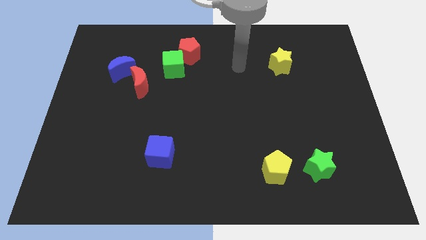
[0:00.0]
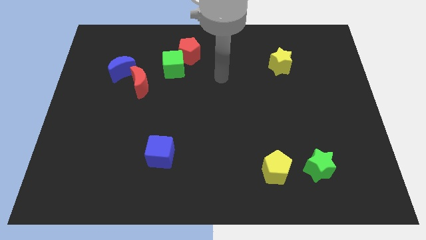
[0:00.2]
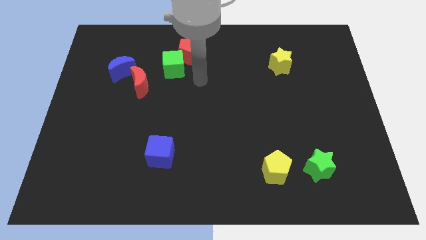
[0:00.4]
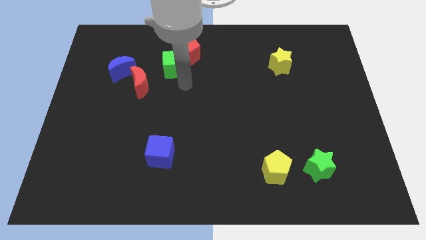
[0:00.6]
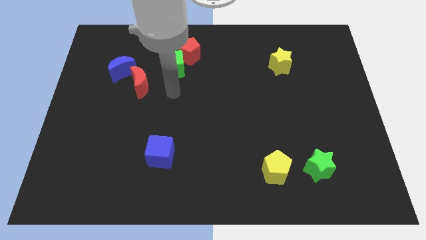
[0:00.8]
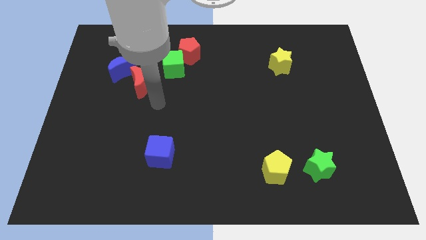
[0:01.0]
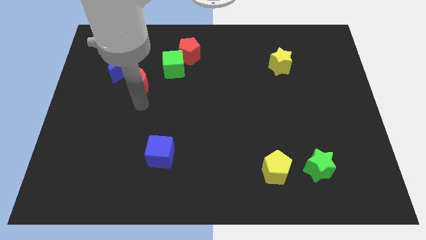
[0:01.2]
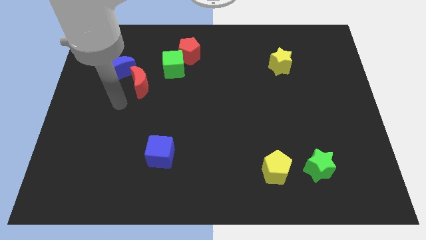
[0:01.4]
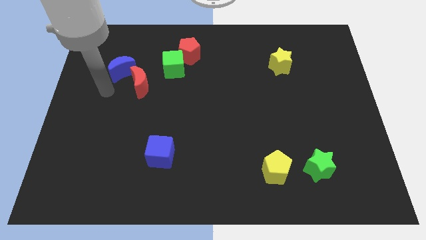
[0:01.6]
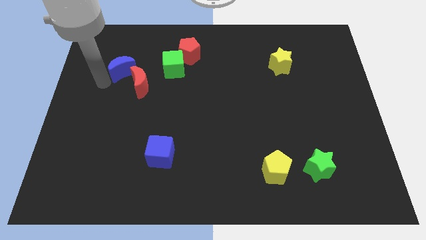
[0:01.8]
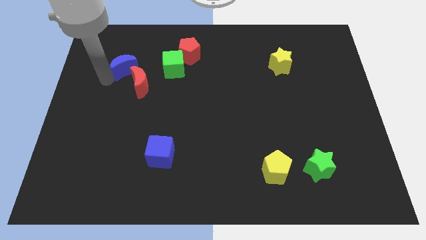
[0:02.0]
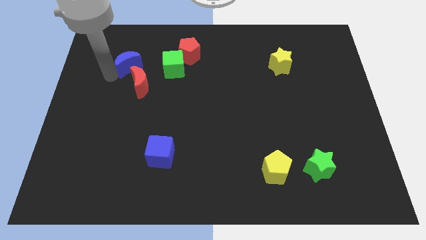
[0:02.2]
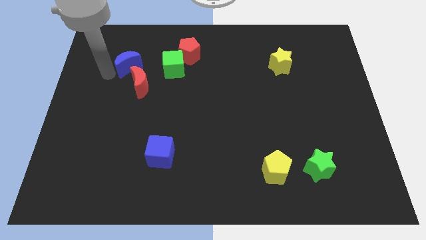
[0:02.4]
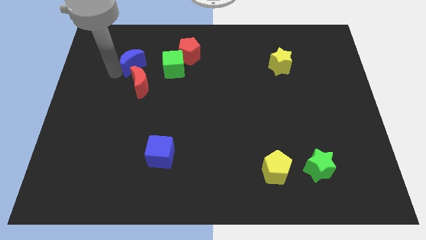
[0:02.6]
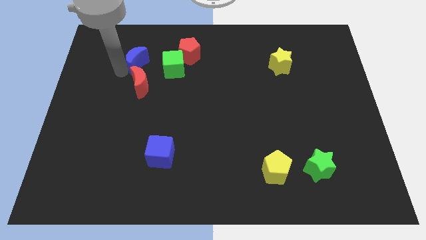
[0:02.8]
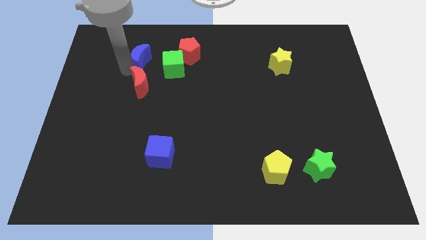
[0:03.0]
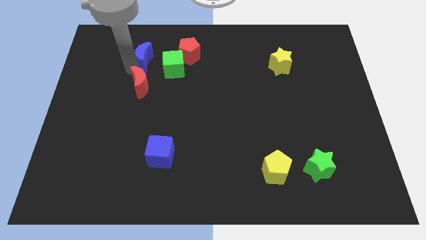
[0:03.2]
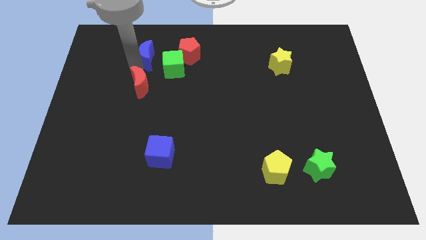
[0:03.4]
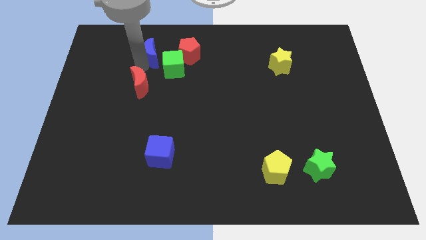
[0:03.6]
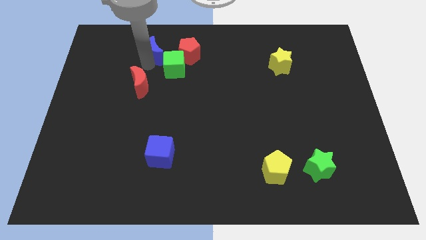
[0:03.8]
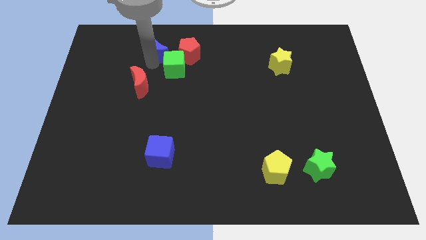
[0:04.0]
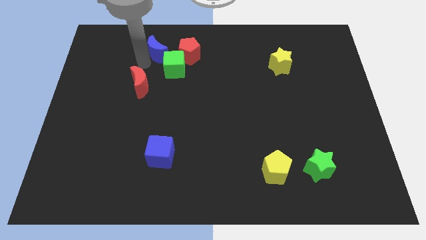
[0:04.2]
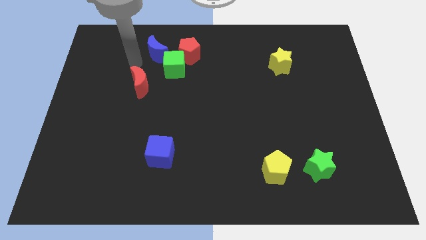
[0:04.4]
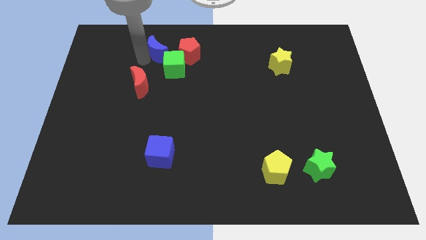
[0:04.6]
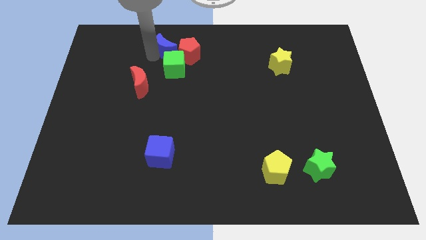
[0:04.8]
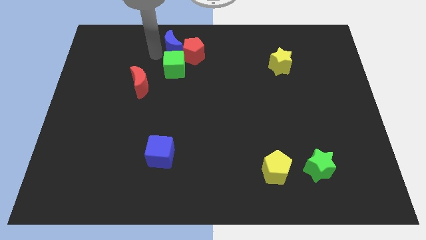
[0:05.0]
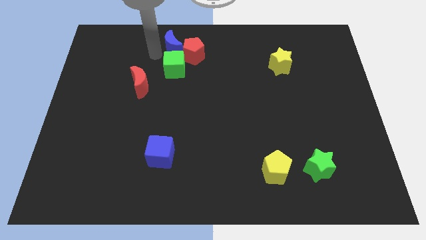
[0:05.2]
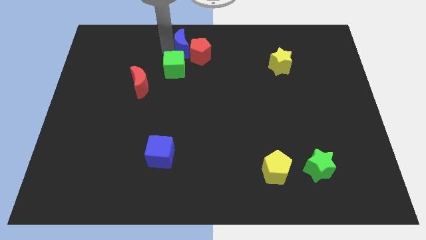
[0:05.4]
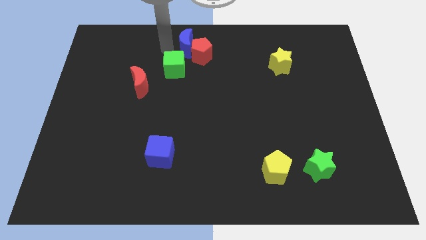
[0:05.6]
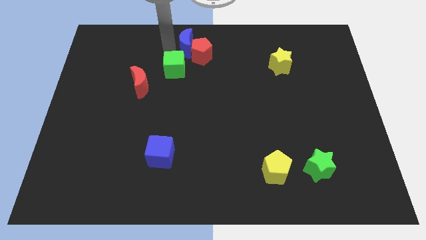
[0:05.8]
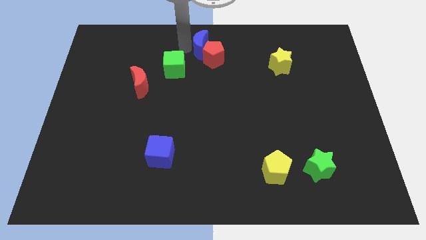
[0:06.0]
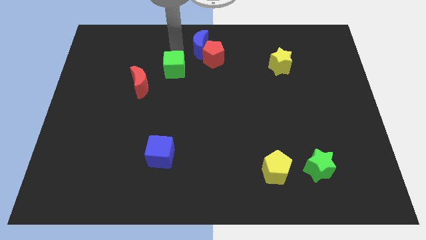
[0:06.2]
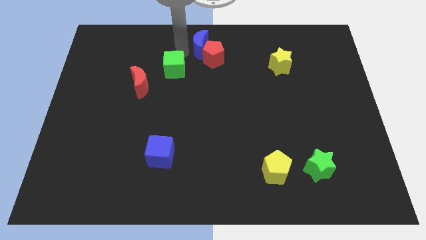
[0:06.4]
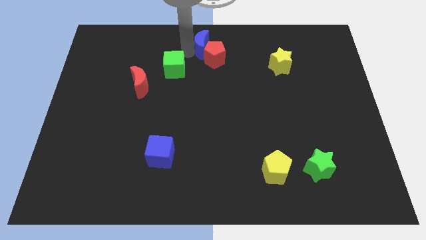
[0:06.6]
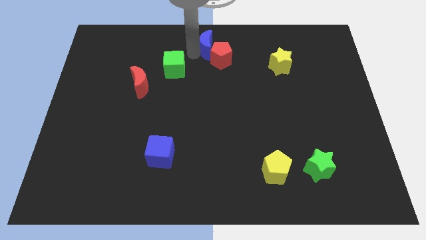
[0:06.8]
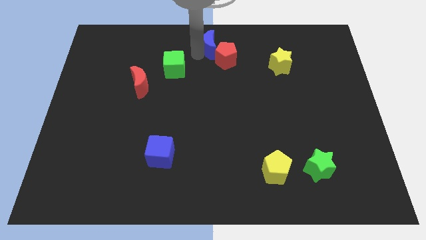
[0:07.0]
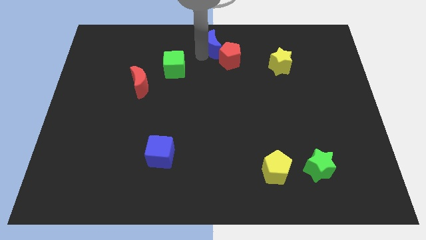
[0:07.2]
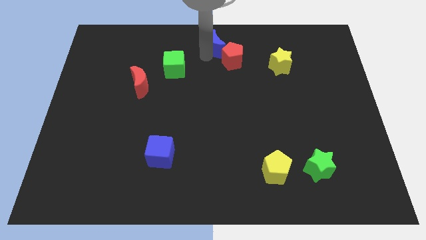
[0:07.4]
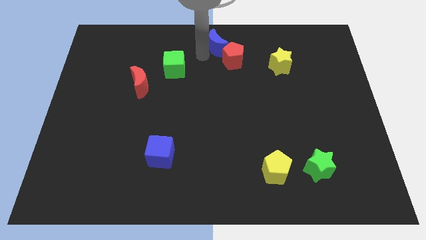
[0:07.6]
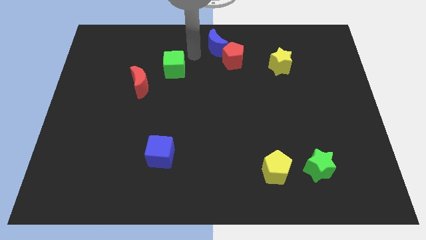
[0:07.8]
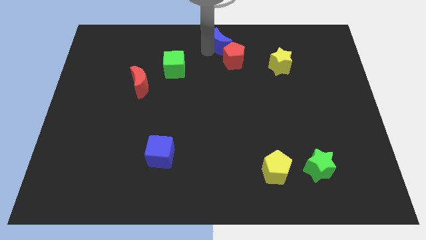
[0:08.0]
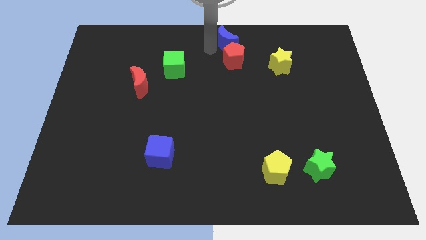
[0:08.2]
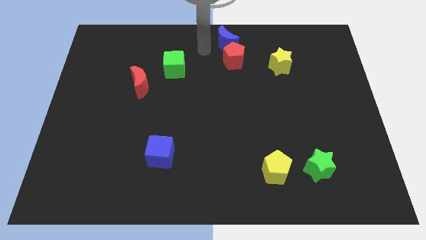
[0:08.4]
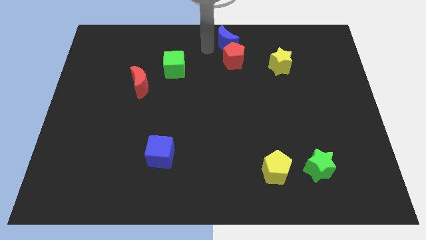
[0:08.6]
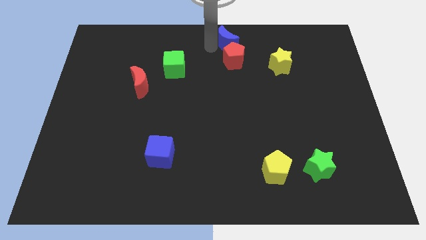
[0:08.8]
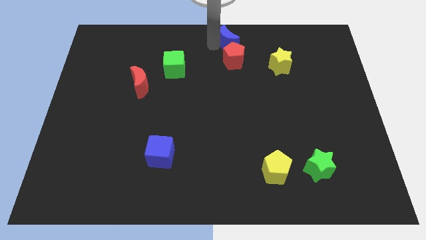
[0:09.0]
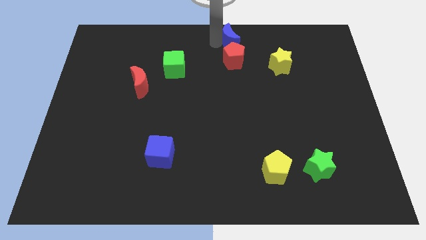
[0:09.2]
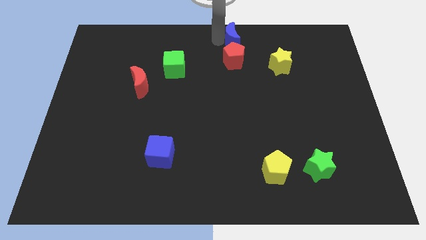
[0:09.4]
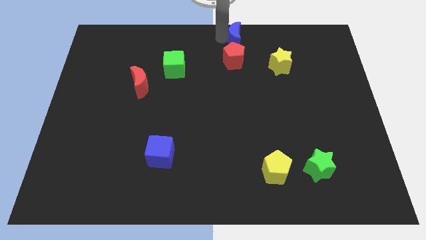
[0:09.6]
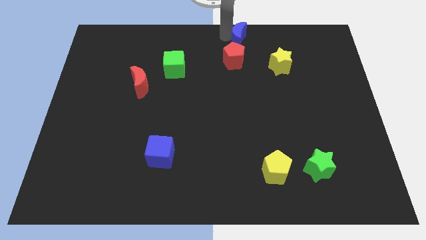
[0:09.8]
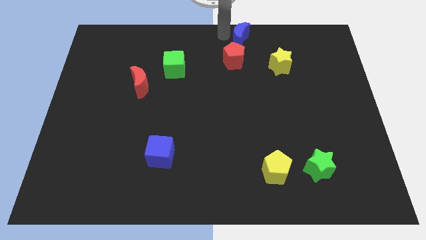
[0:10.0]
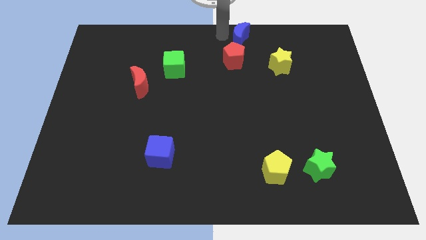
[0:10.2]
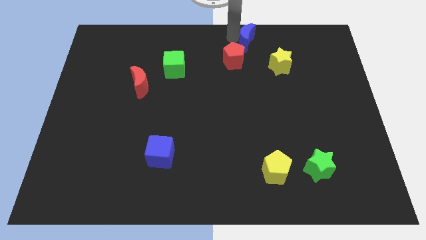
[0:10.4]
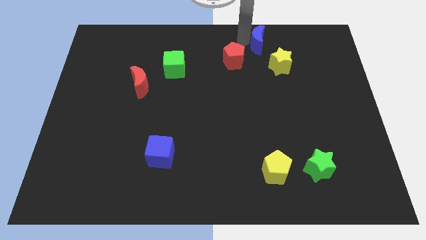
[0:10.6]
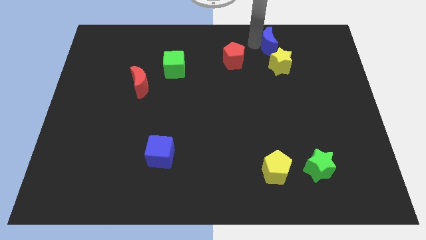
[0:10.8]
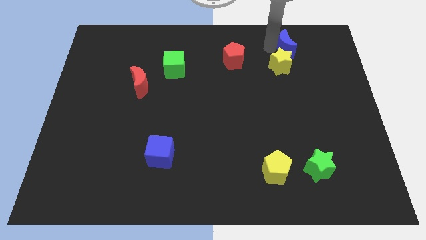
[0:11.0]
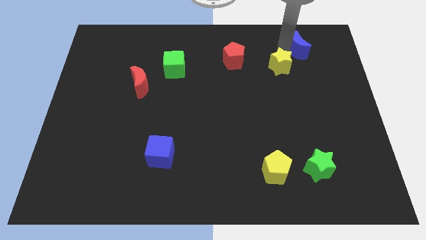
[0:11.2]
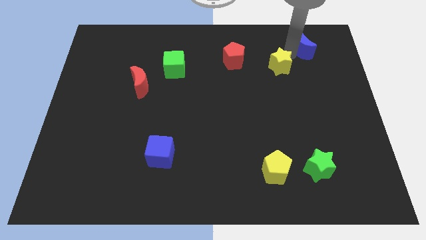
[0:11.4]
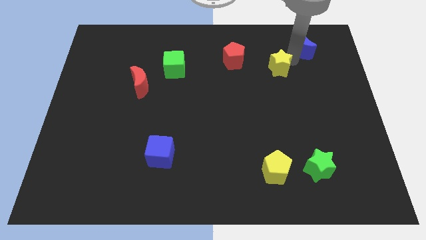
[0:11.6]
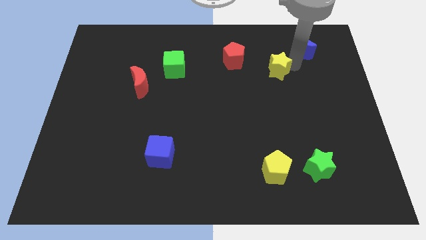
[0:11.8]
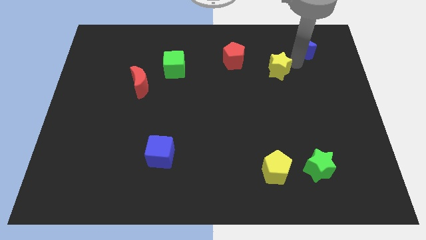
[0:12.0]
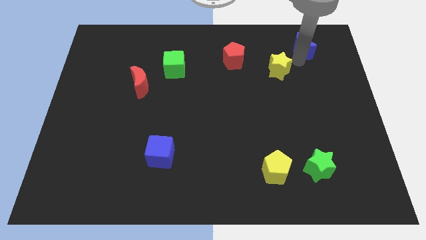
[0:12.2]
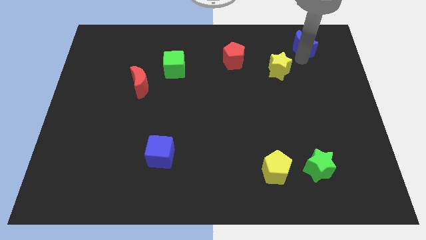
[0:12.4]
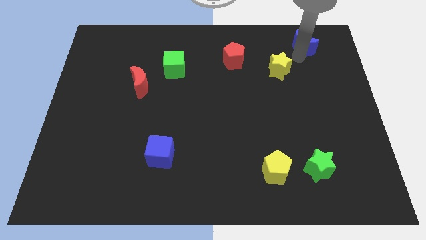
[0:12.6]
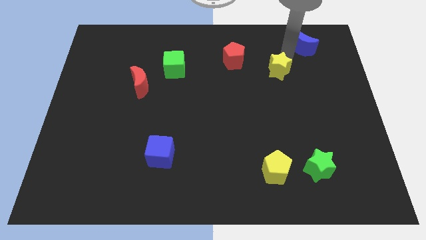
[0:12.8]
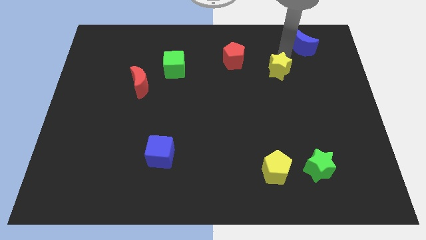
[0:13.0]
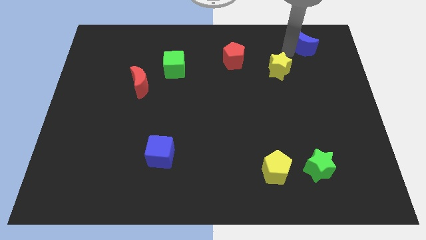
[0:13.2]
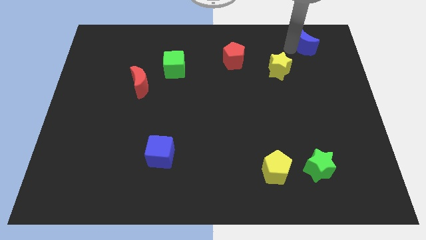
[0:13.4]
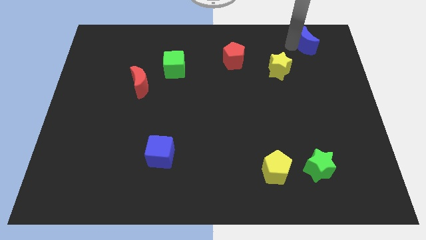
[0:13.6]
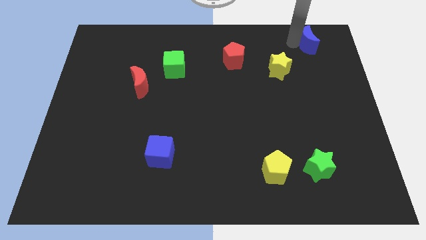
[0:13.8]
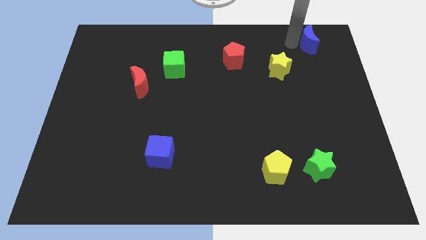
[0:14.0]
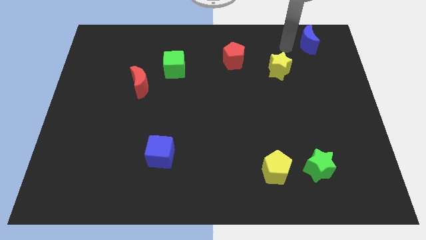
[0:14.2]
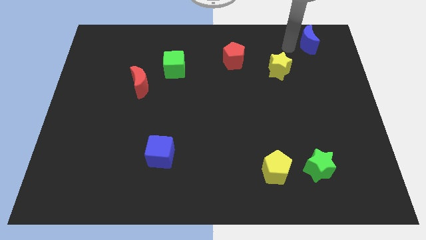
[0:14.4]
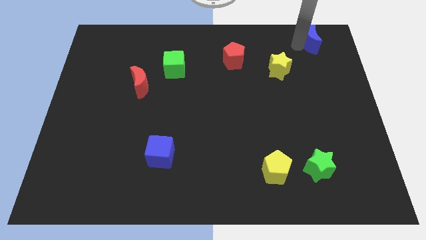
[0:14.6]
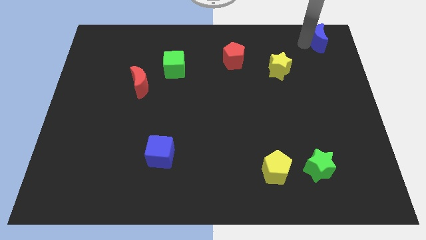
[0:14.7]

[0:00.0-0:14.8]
slide the blue moon to the top right of the board
